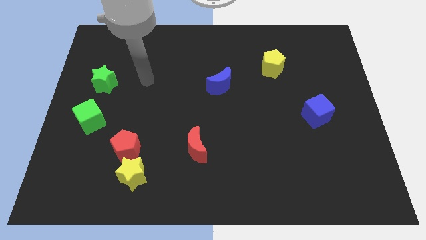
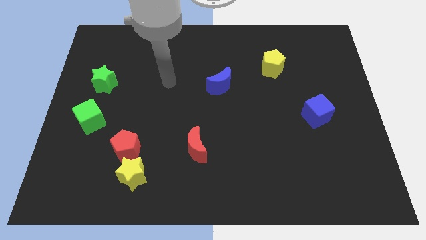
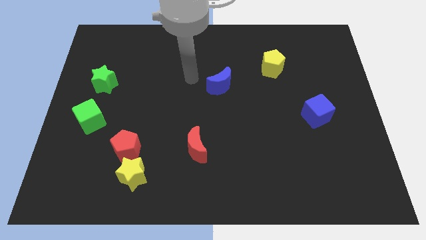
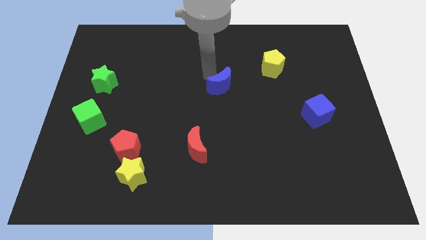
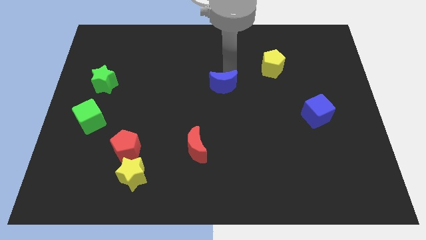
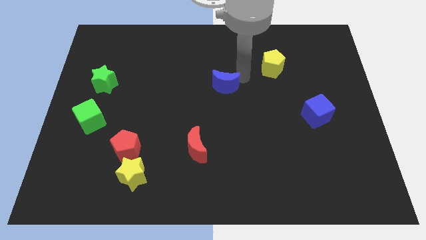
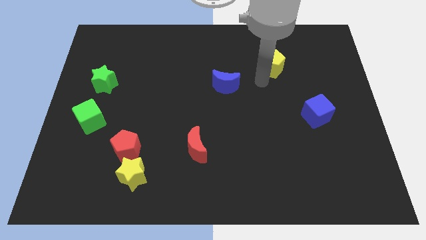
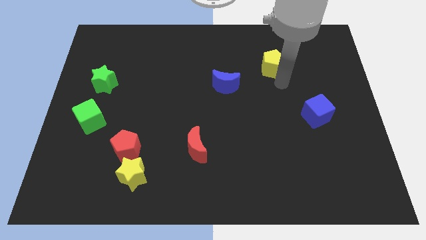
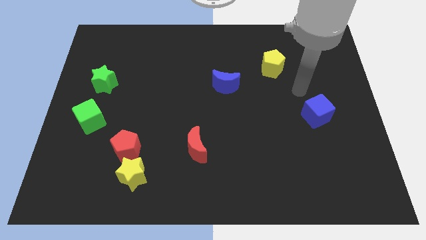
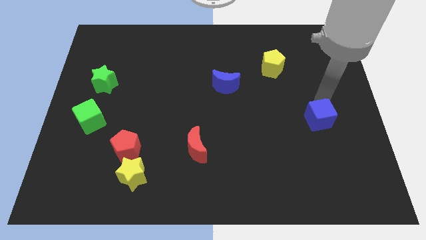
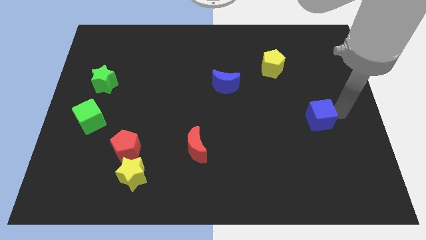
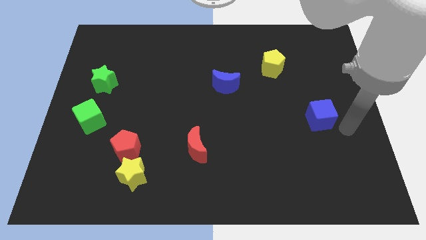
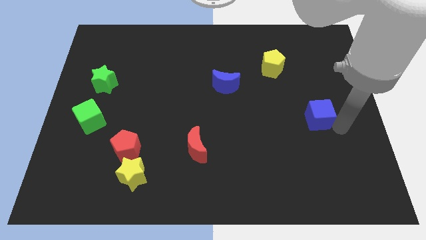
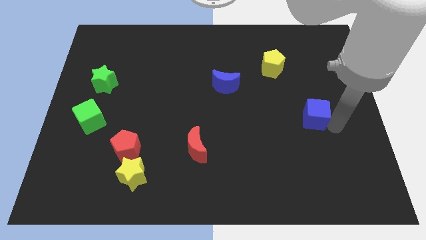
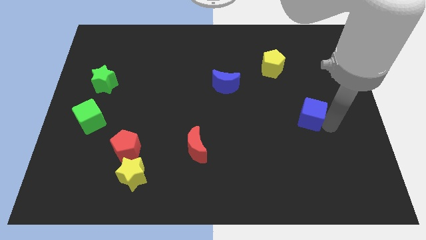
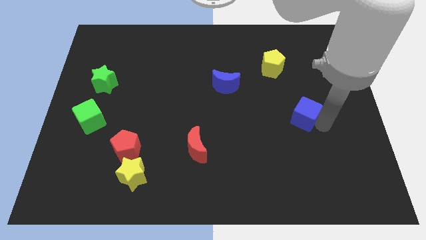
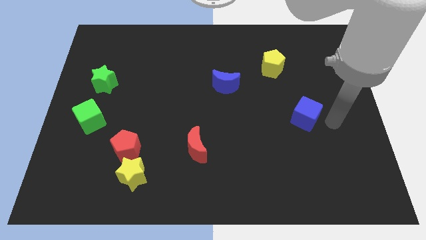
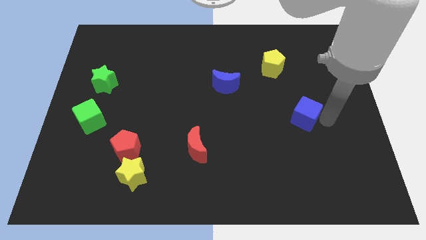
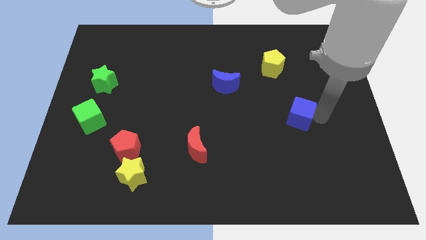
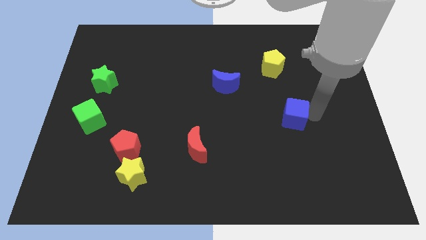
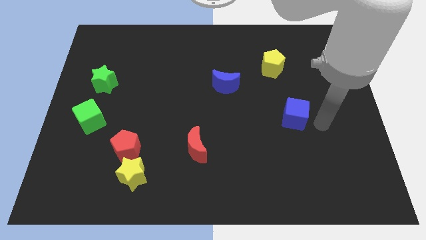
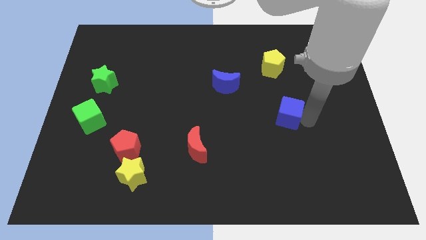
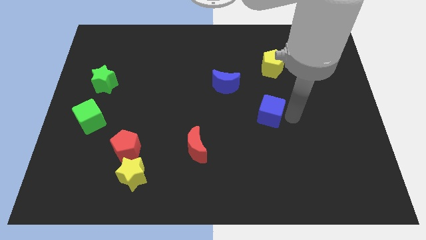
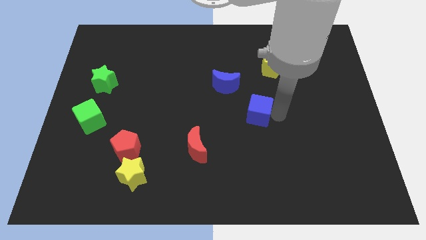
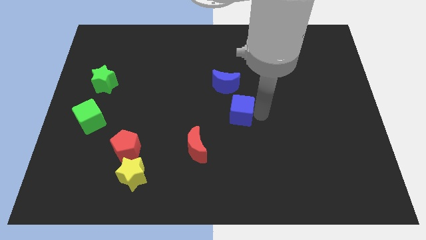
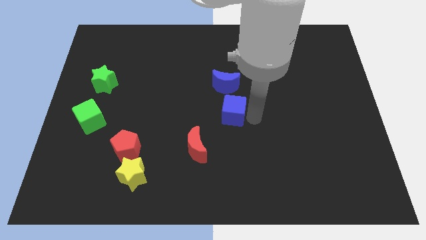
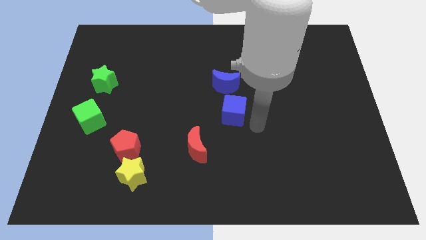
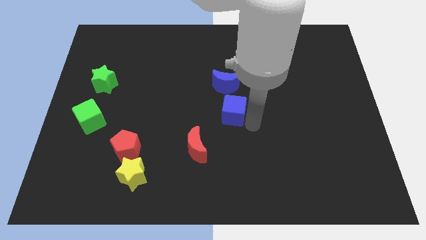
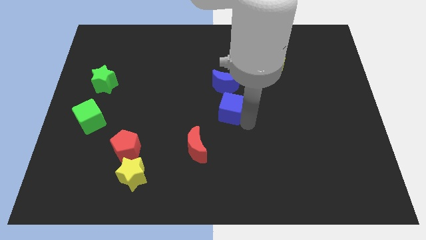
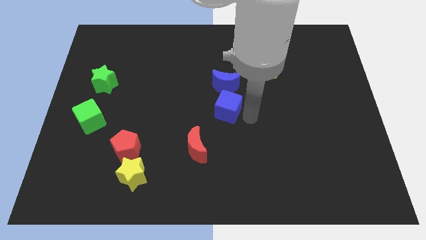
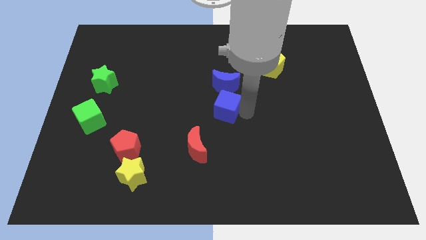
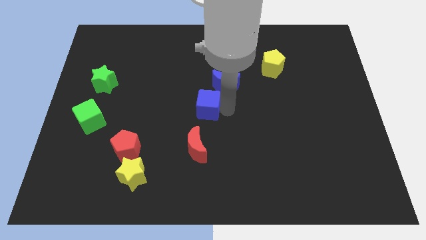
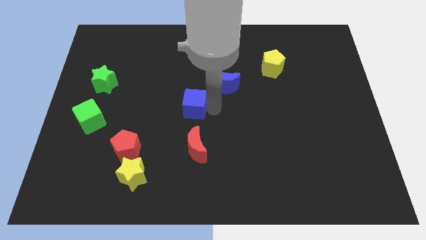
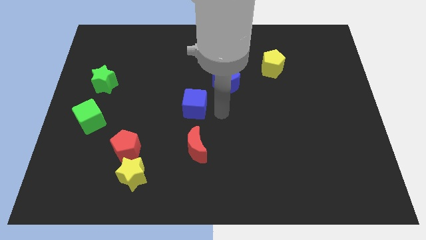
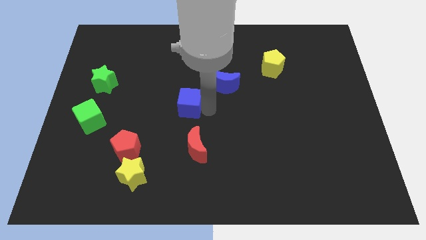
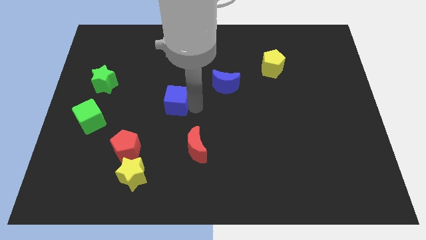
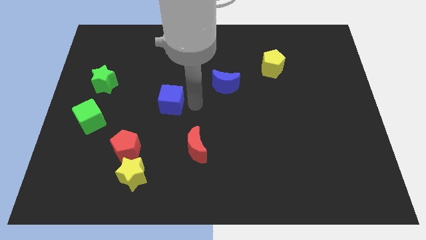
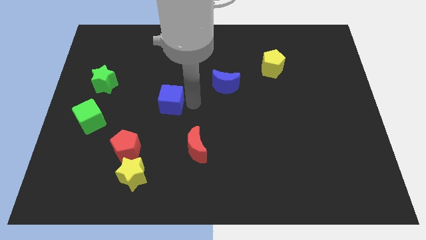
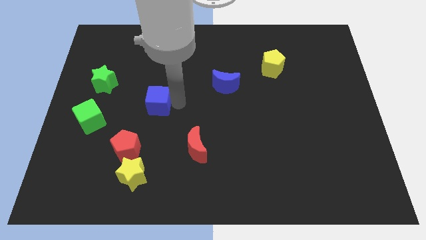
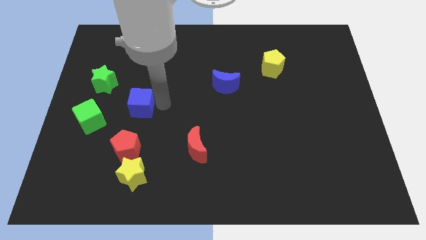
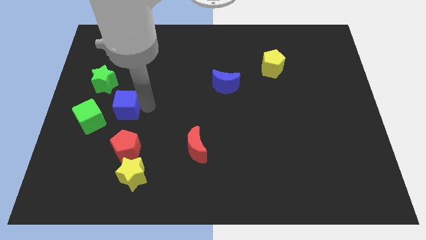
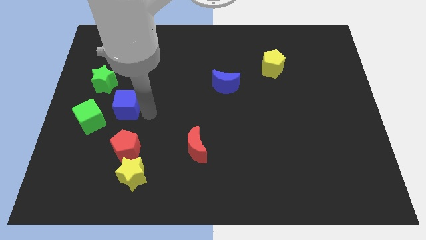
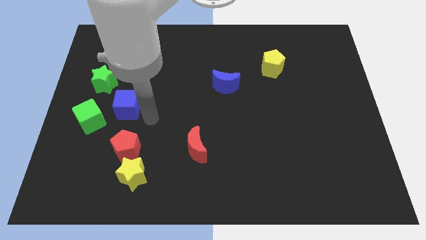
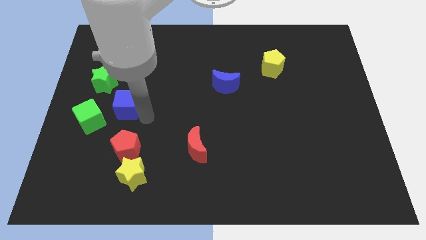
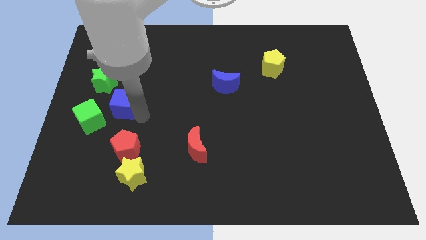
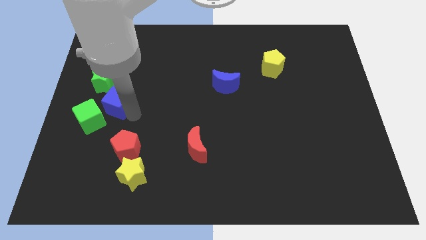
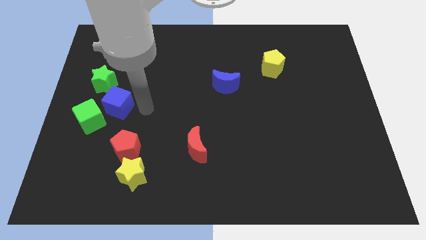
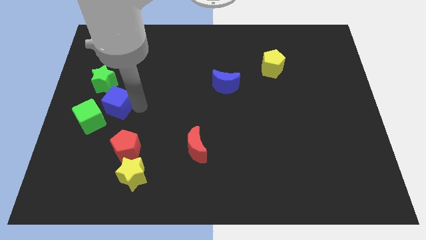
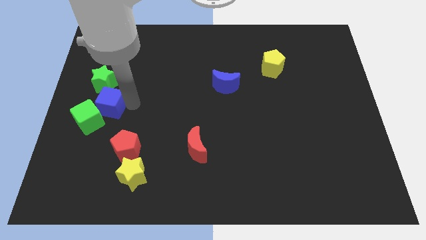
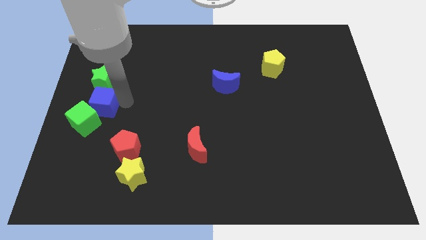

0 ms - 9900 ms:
put the blue cube to the left side of the board

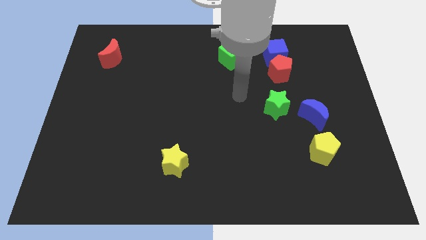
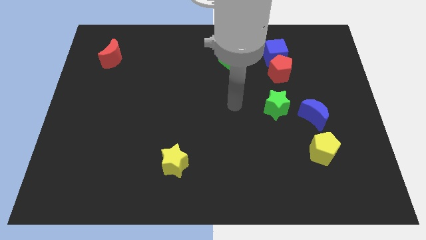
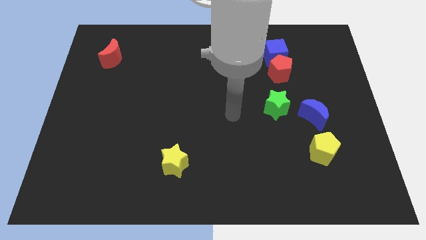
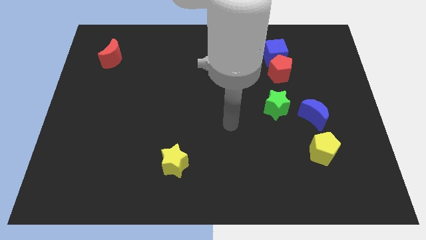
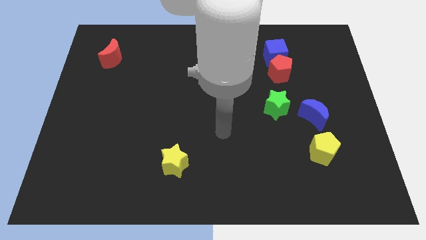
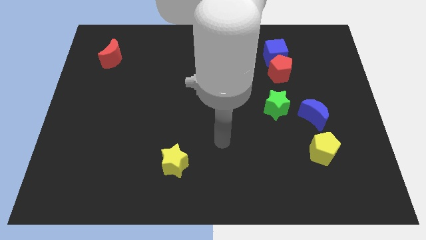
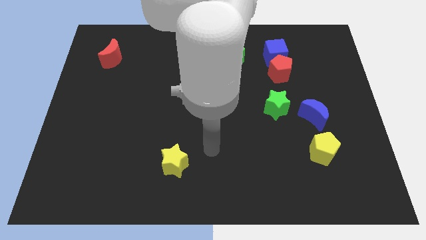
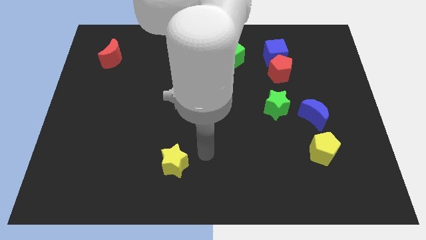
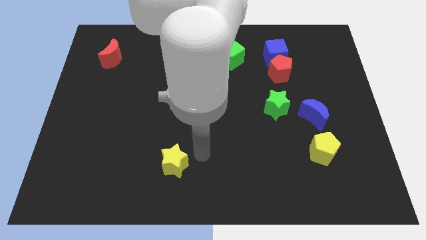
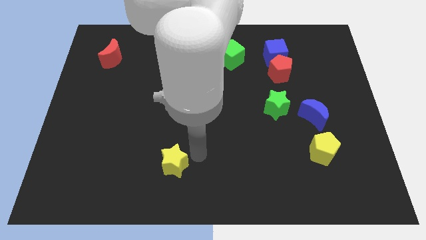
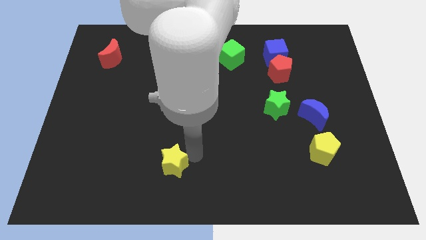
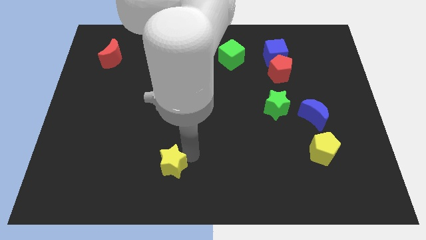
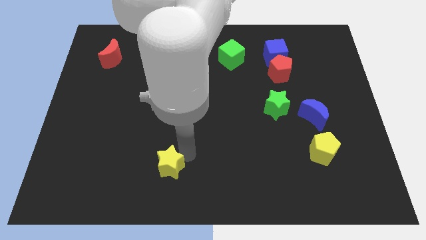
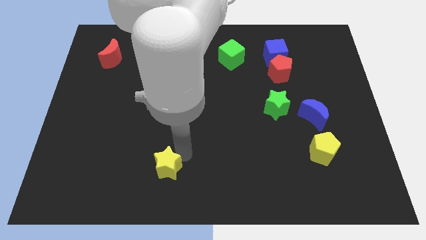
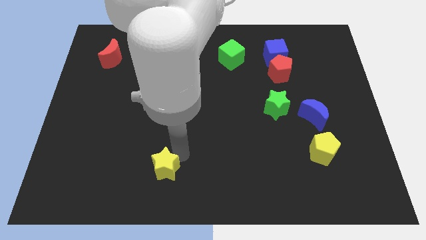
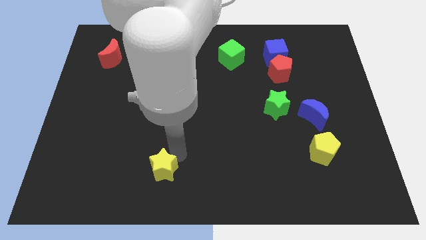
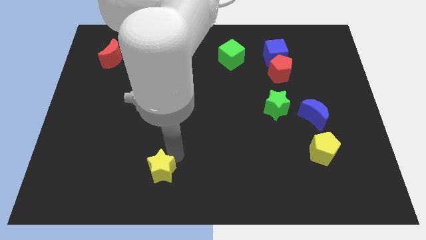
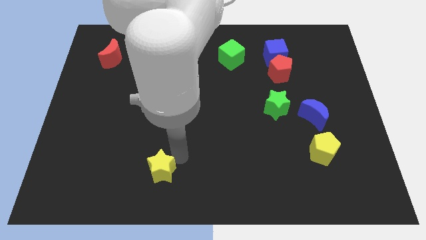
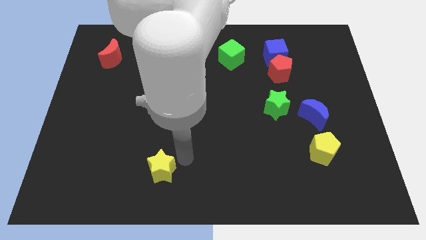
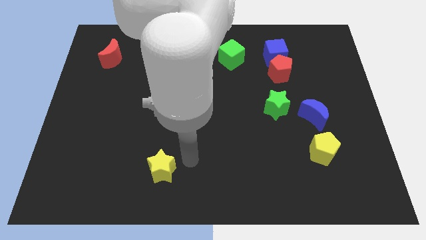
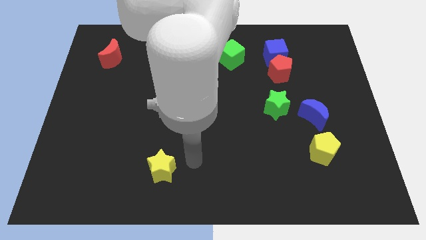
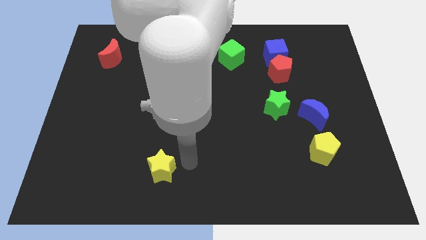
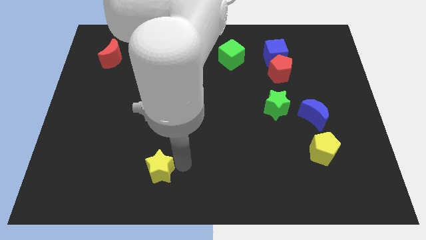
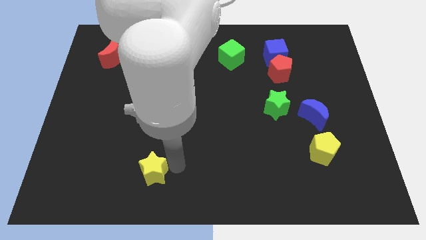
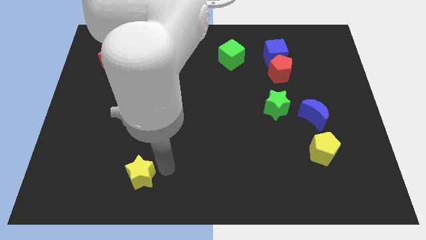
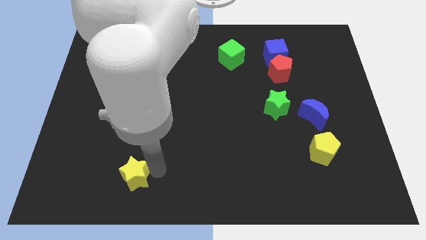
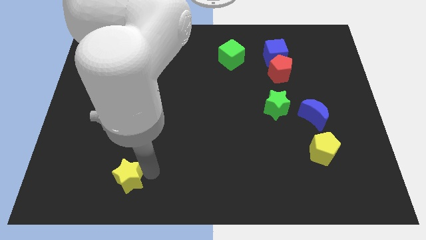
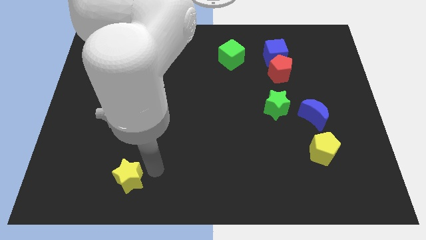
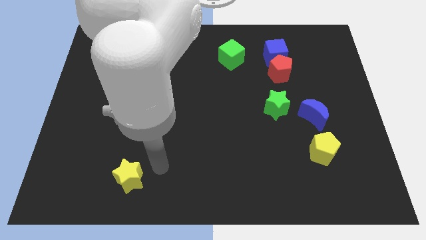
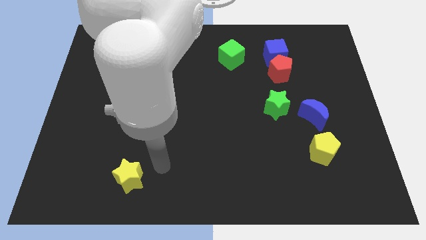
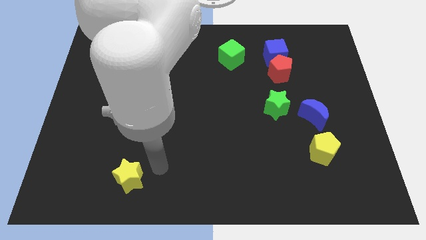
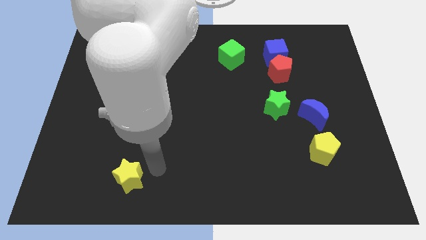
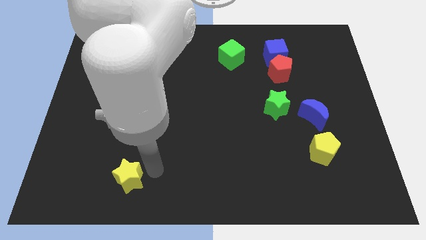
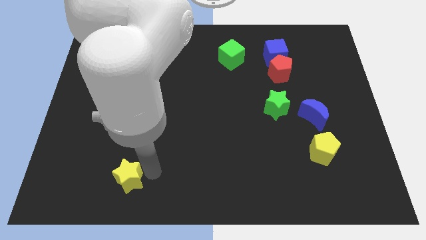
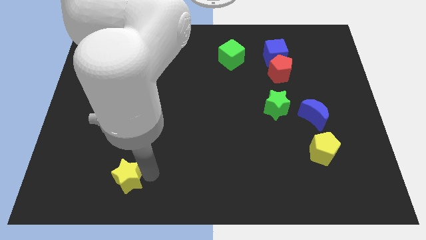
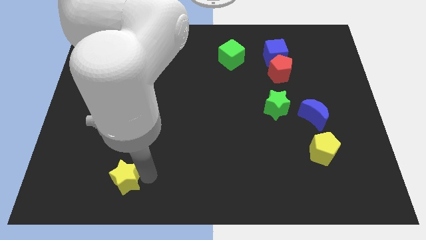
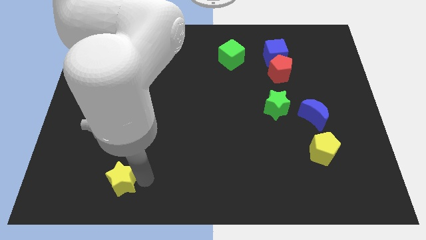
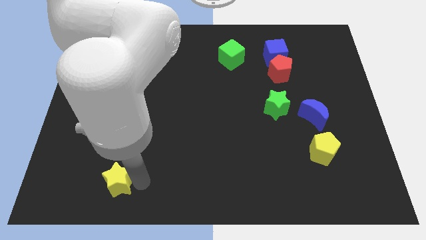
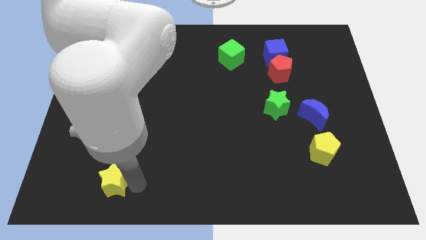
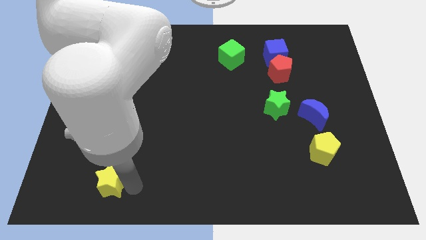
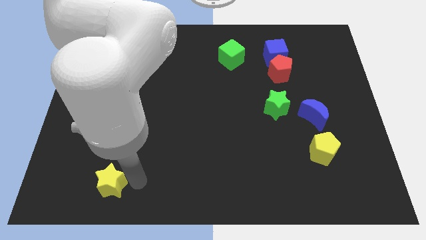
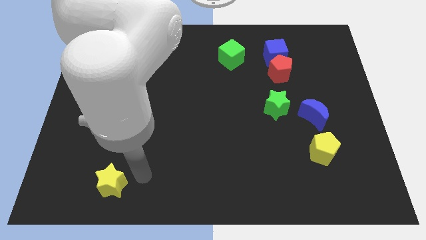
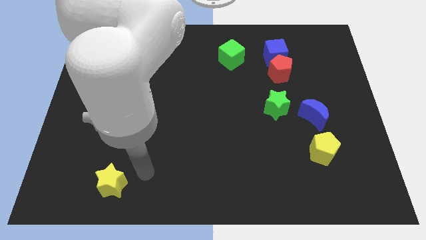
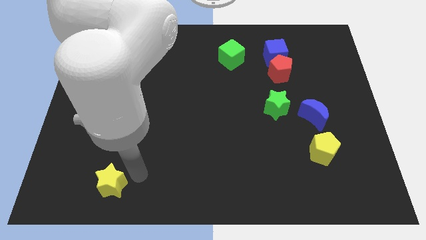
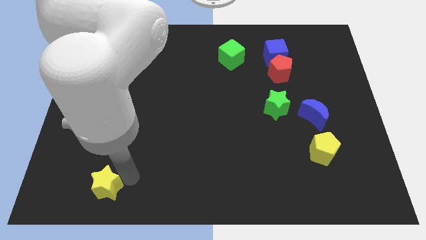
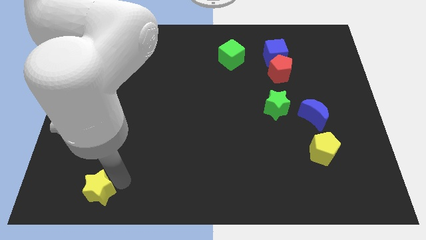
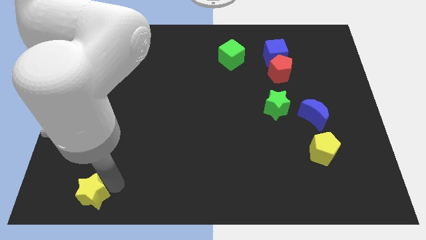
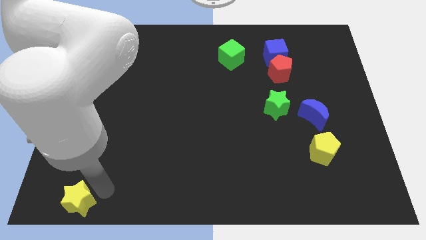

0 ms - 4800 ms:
push the yellow star to the lower left corner
